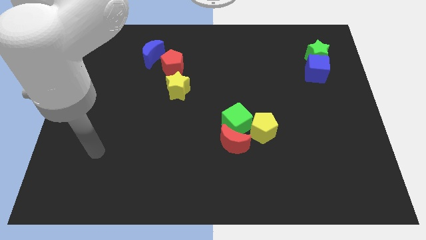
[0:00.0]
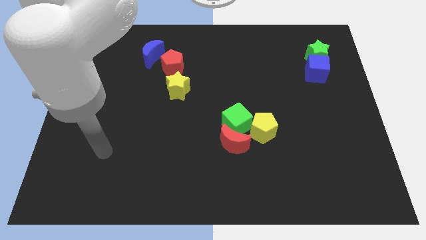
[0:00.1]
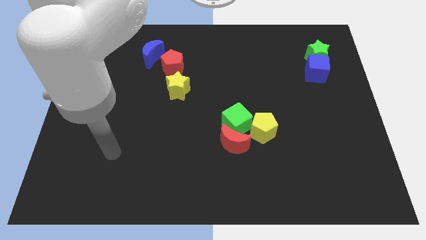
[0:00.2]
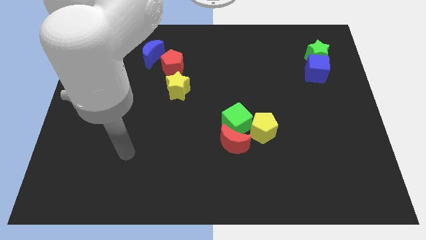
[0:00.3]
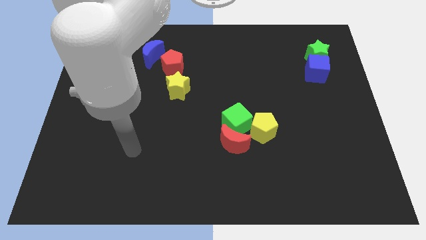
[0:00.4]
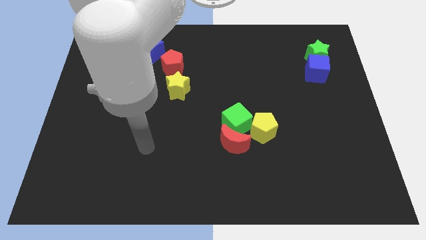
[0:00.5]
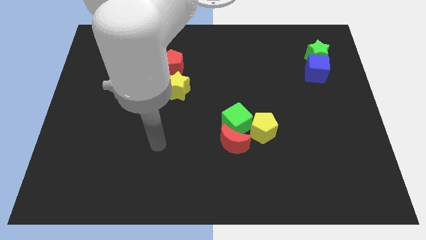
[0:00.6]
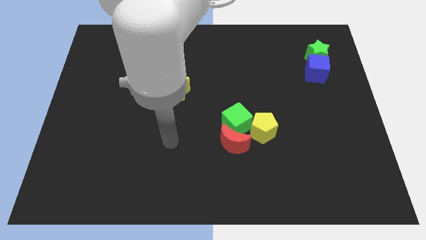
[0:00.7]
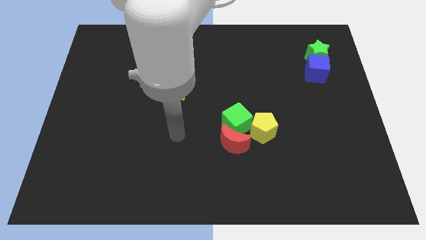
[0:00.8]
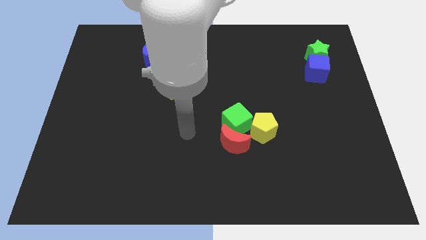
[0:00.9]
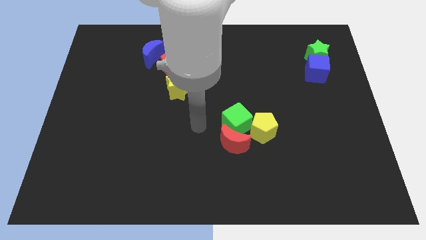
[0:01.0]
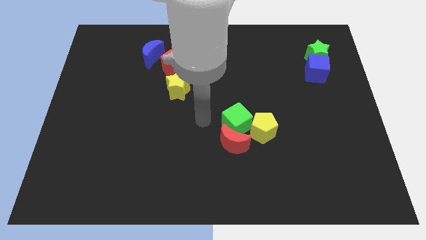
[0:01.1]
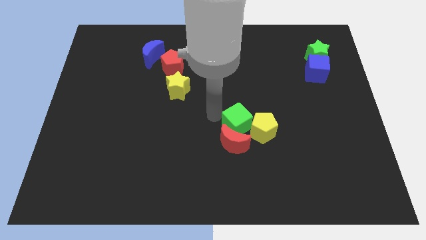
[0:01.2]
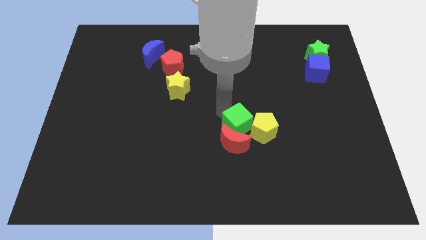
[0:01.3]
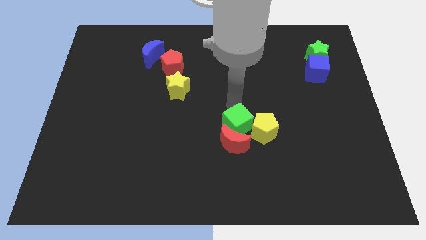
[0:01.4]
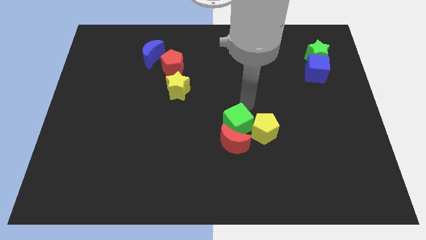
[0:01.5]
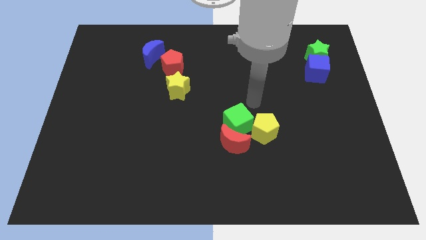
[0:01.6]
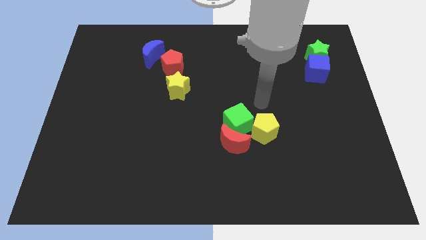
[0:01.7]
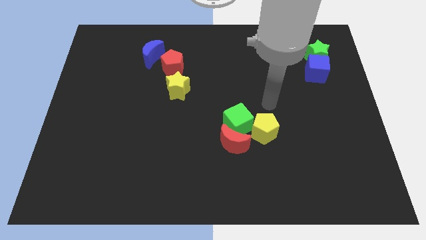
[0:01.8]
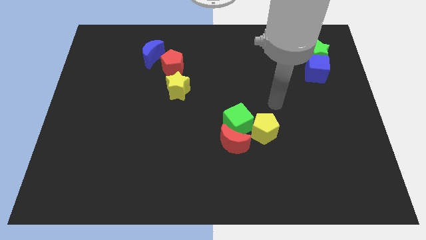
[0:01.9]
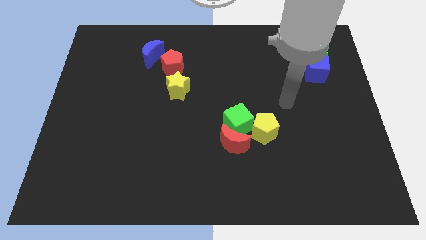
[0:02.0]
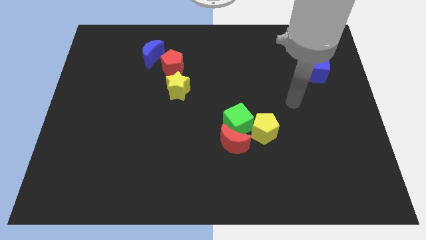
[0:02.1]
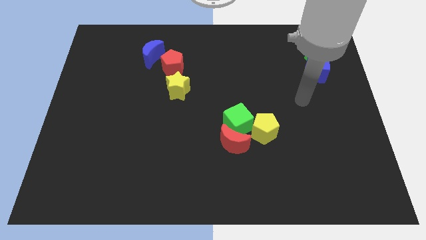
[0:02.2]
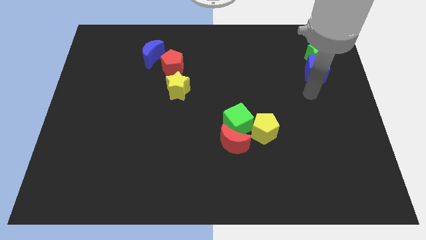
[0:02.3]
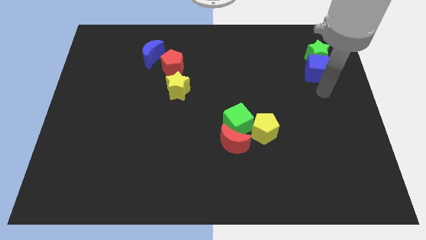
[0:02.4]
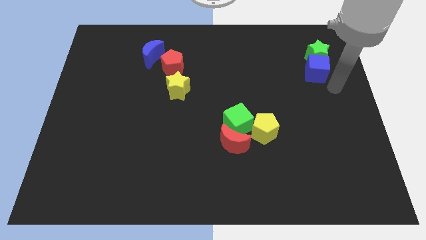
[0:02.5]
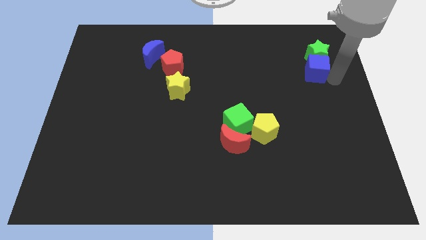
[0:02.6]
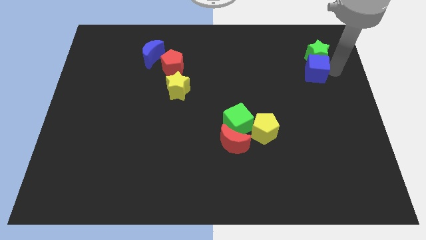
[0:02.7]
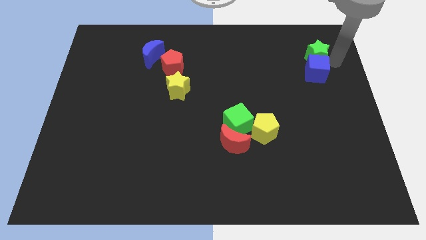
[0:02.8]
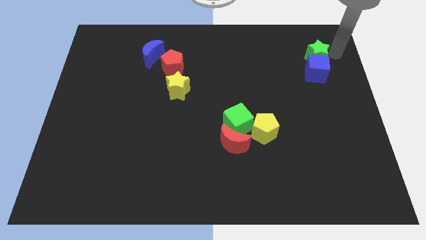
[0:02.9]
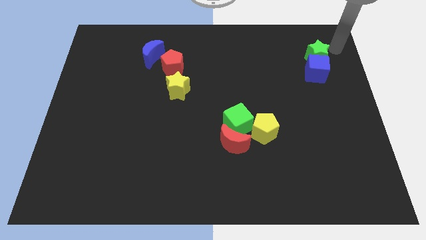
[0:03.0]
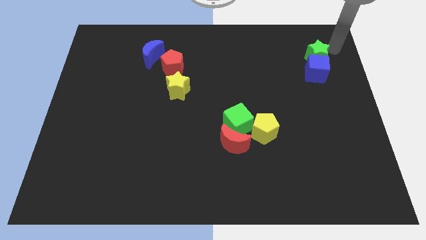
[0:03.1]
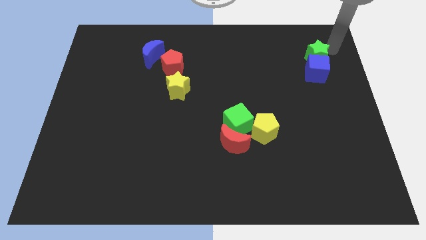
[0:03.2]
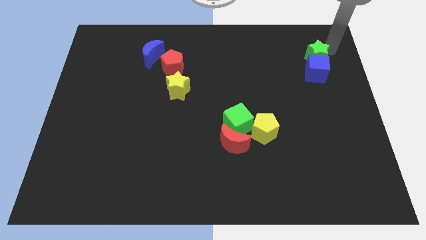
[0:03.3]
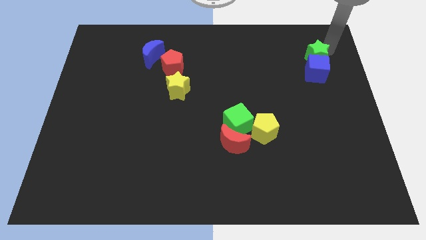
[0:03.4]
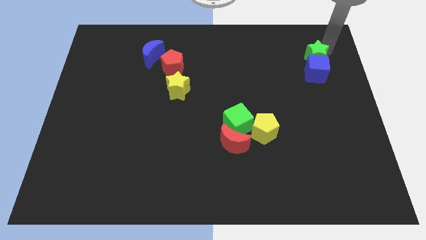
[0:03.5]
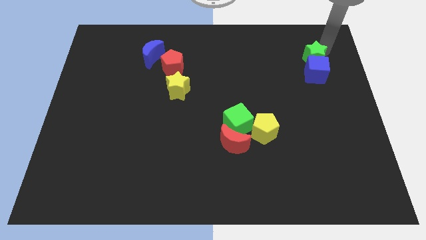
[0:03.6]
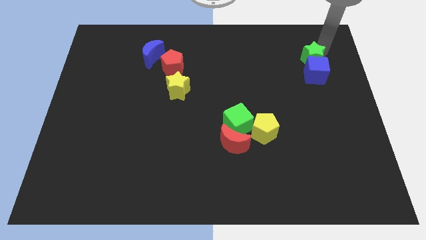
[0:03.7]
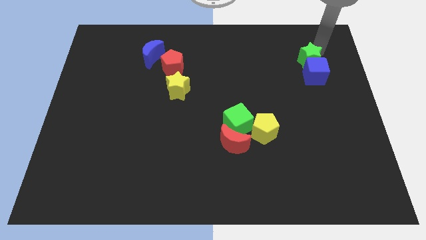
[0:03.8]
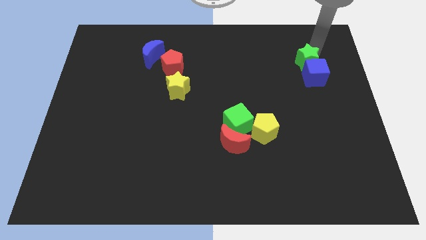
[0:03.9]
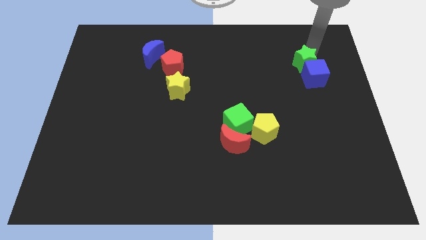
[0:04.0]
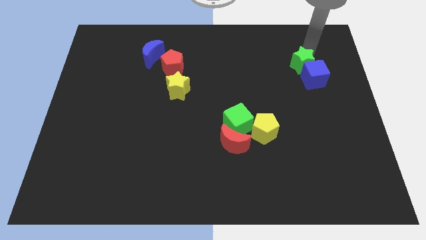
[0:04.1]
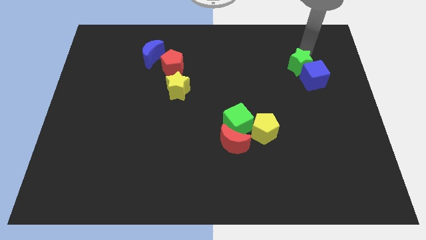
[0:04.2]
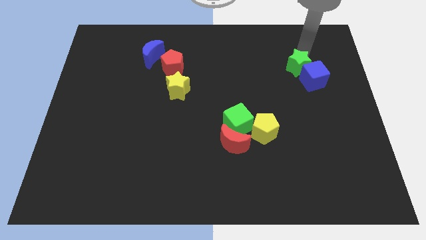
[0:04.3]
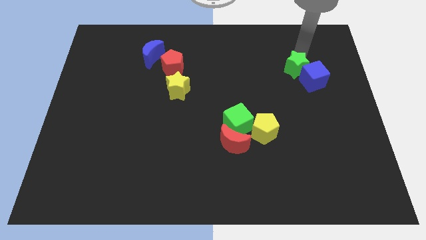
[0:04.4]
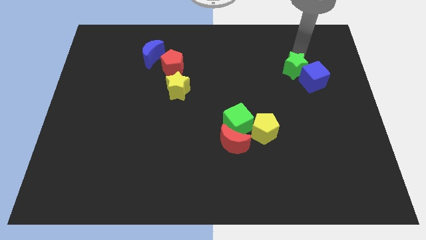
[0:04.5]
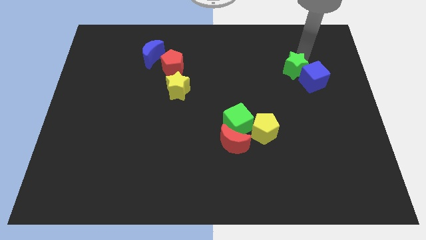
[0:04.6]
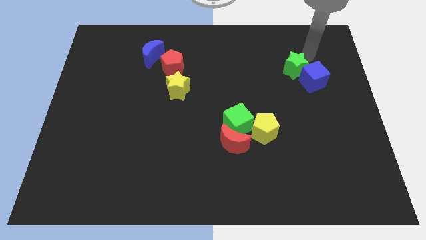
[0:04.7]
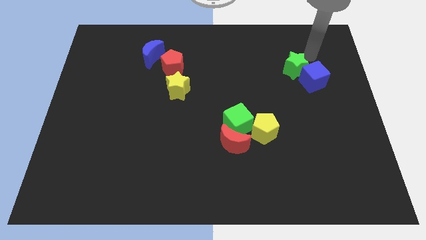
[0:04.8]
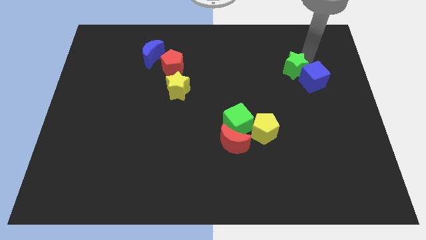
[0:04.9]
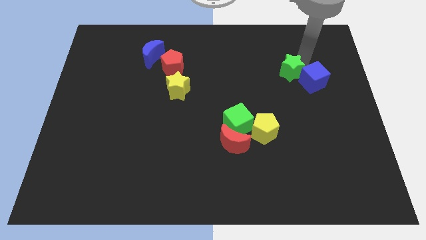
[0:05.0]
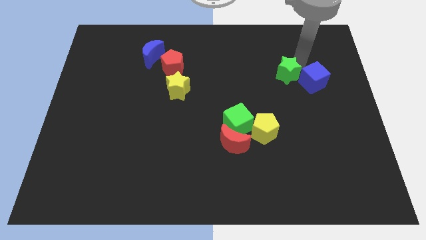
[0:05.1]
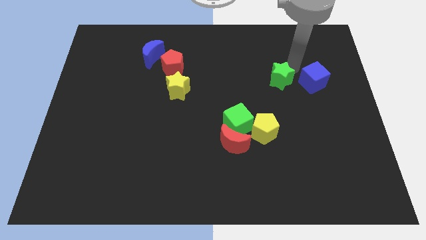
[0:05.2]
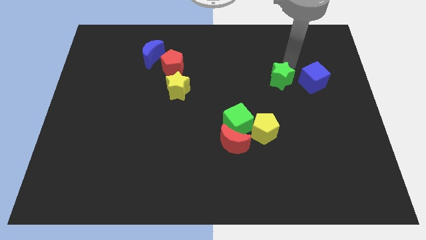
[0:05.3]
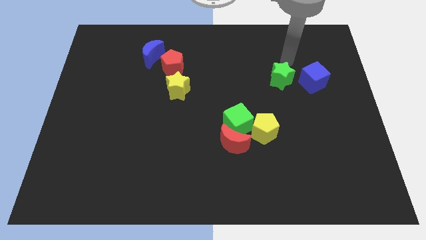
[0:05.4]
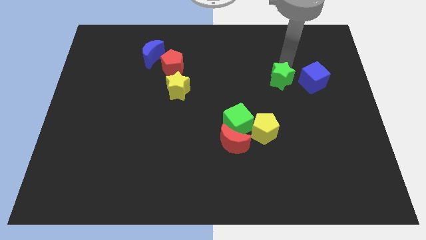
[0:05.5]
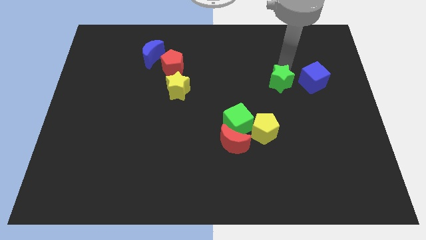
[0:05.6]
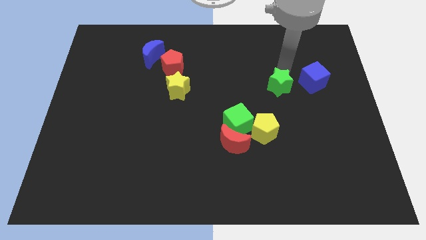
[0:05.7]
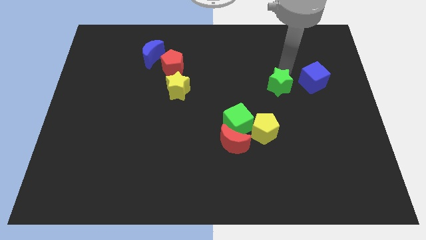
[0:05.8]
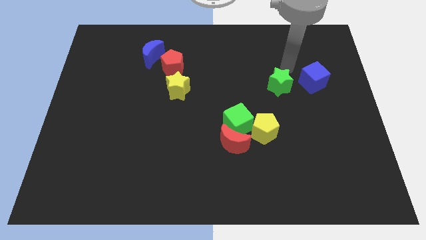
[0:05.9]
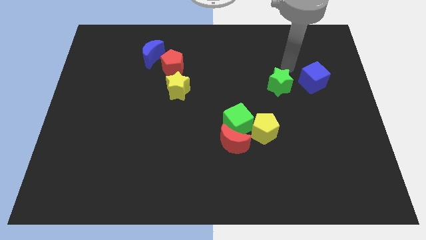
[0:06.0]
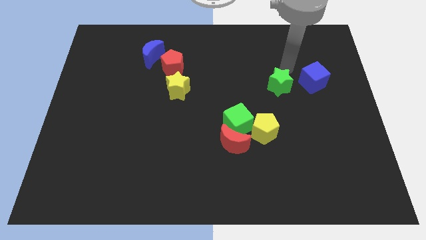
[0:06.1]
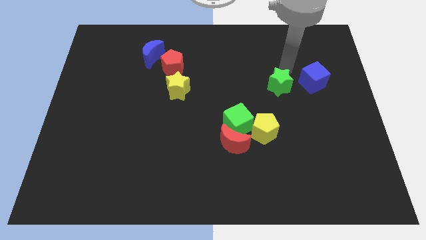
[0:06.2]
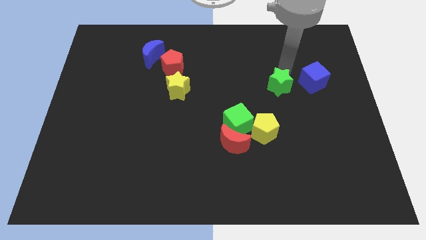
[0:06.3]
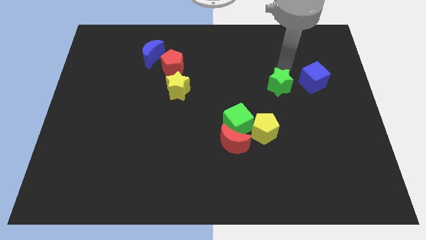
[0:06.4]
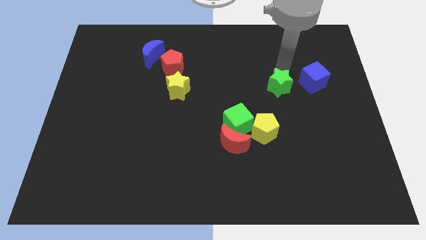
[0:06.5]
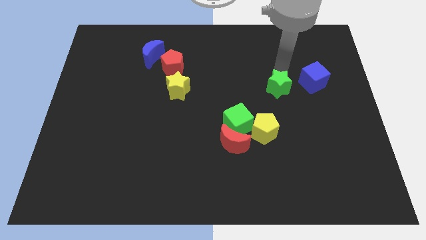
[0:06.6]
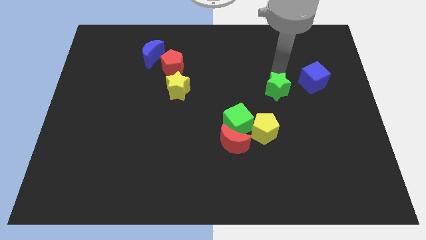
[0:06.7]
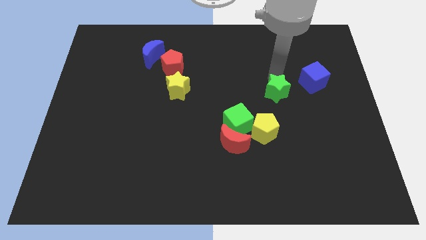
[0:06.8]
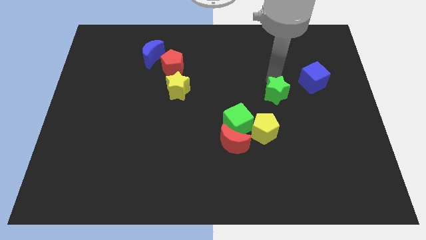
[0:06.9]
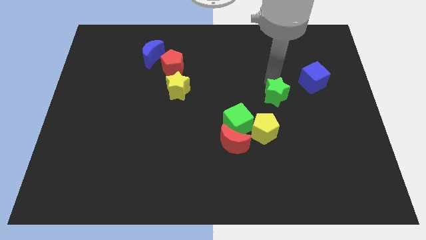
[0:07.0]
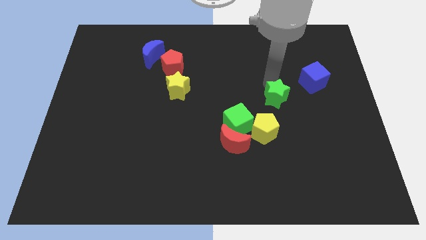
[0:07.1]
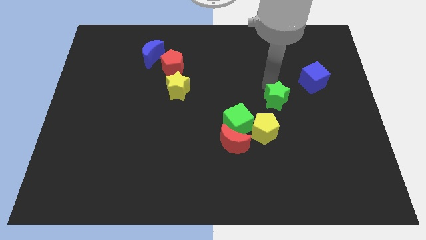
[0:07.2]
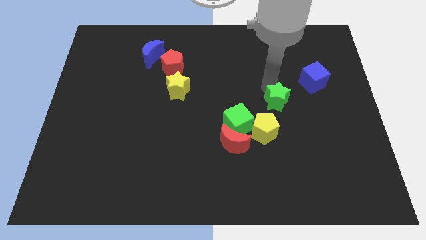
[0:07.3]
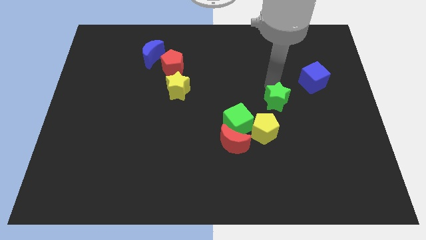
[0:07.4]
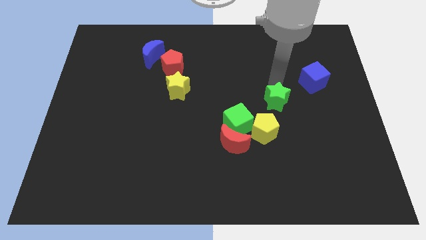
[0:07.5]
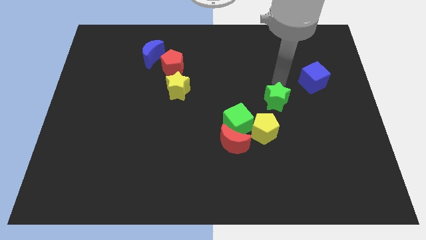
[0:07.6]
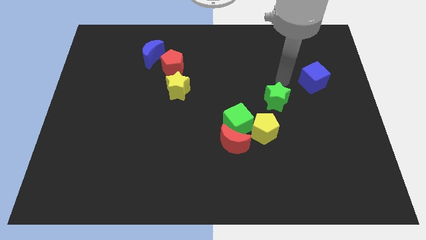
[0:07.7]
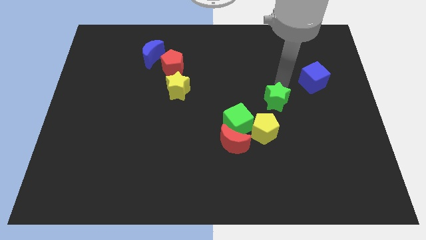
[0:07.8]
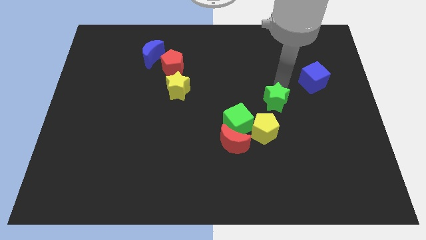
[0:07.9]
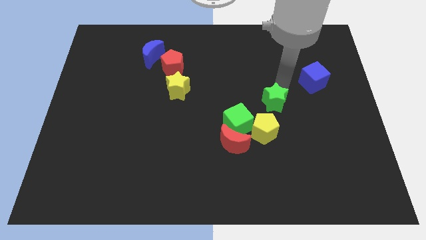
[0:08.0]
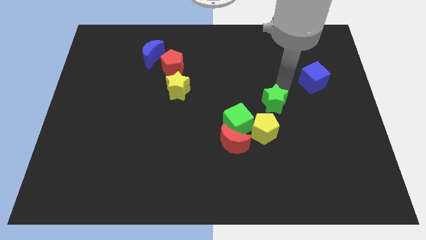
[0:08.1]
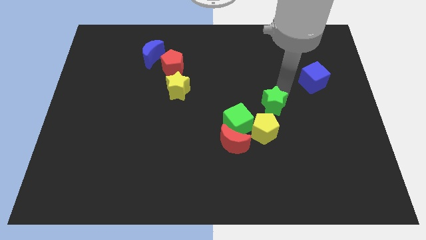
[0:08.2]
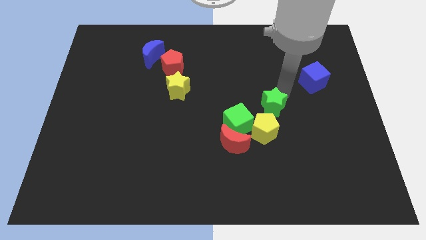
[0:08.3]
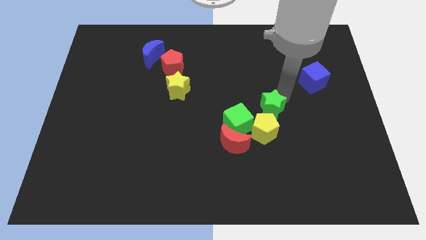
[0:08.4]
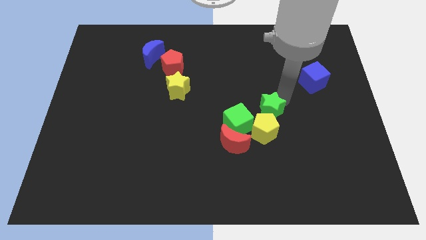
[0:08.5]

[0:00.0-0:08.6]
move the green star towards the yellow pentagon
